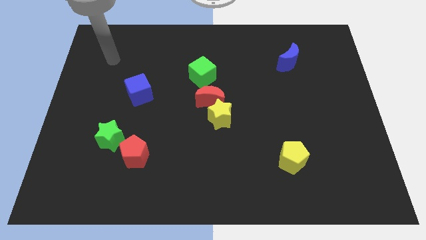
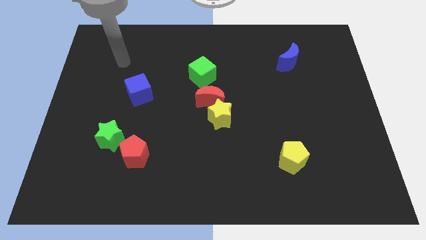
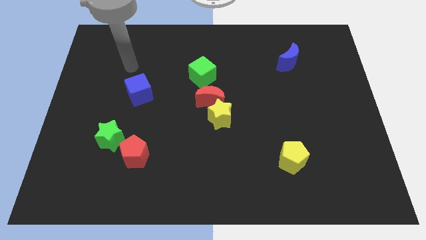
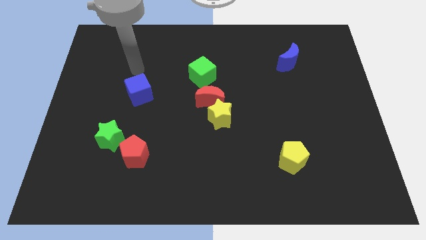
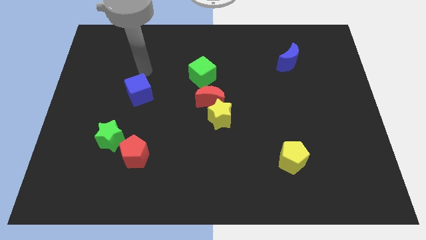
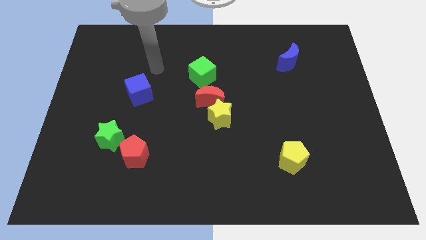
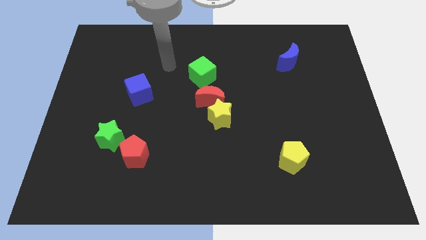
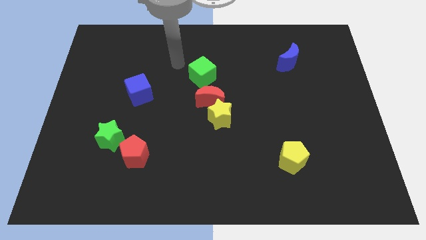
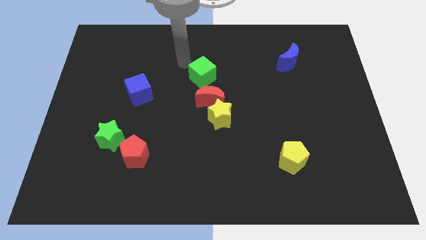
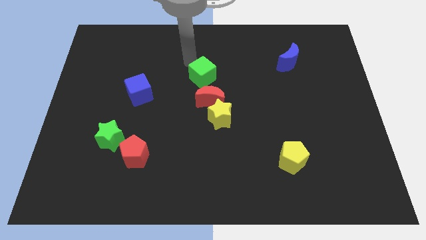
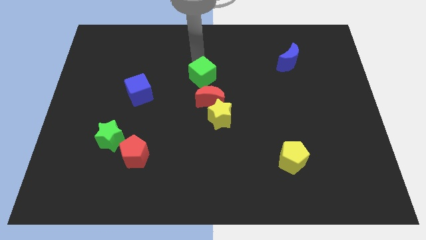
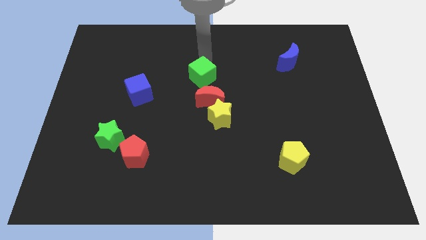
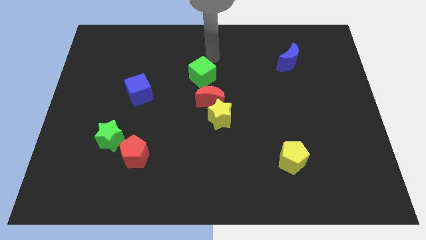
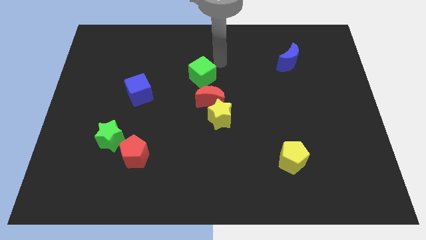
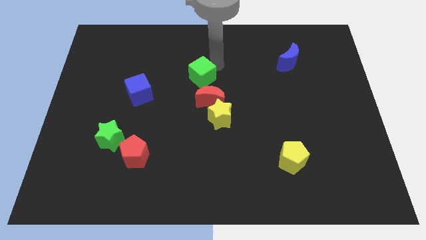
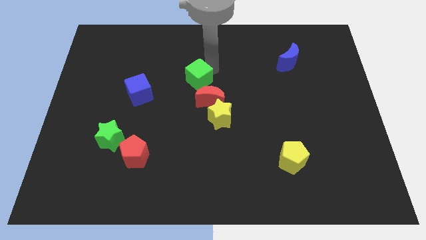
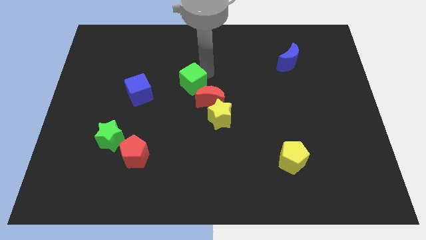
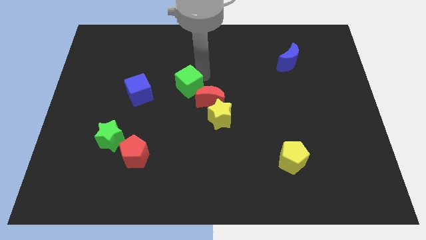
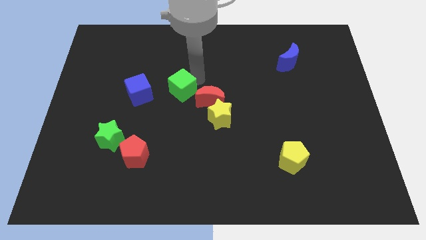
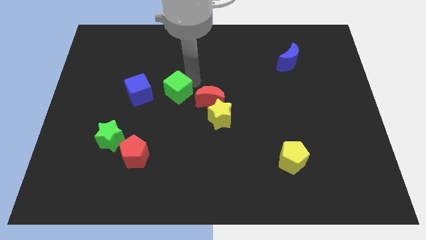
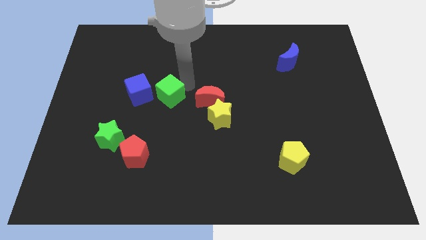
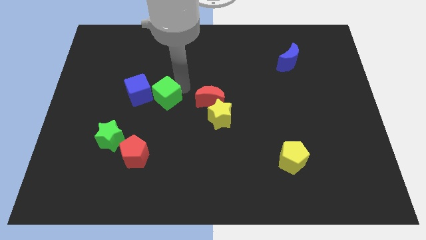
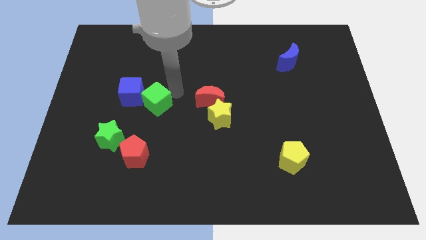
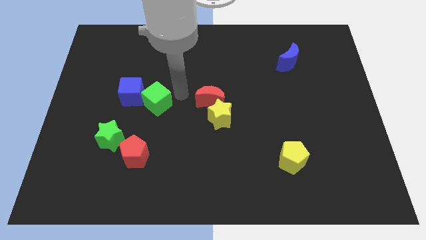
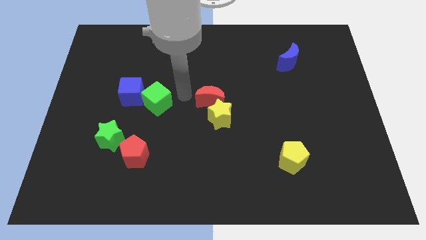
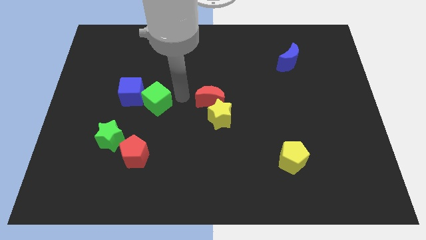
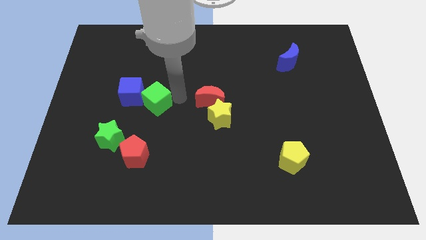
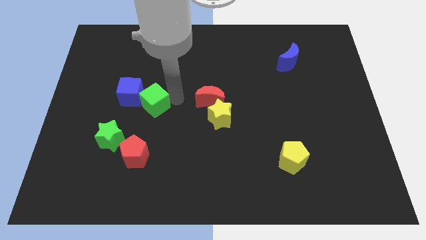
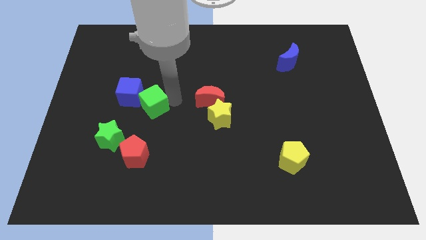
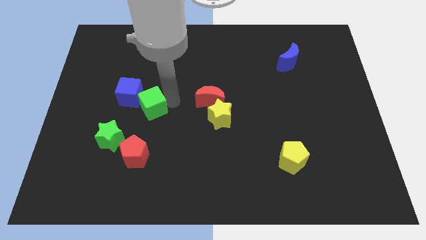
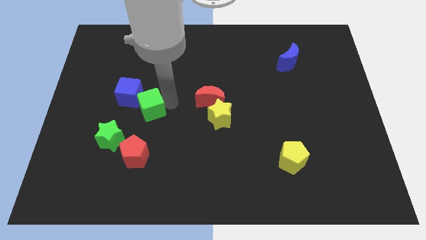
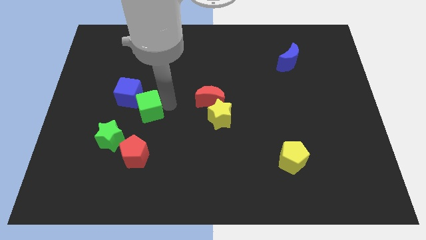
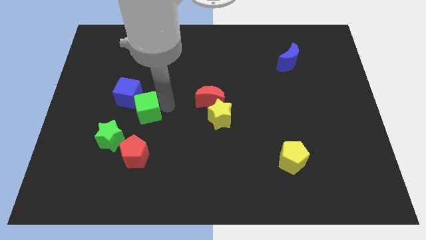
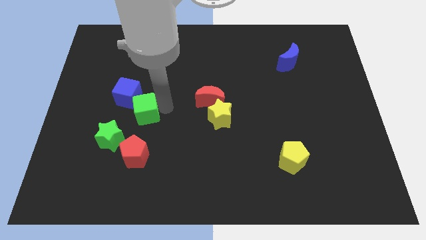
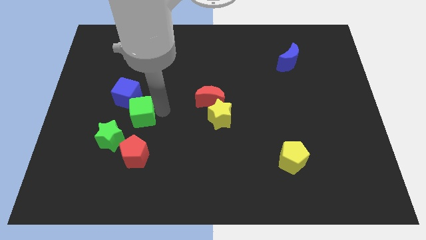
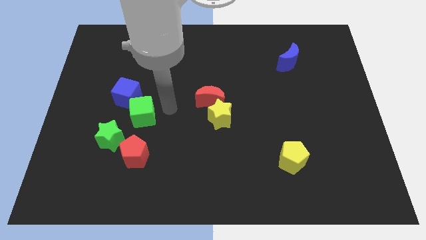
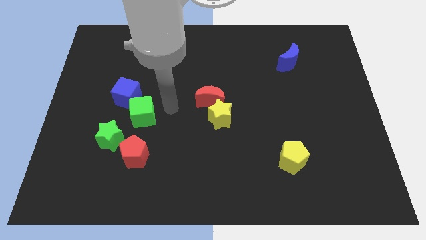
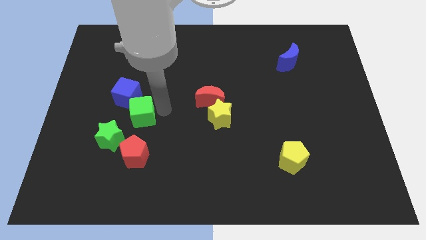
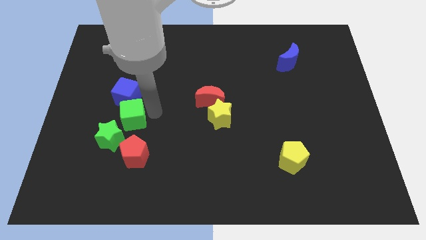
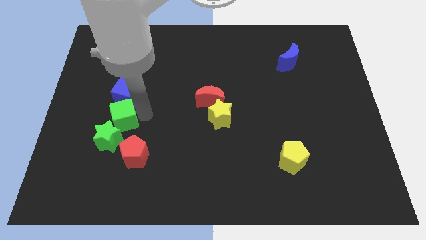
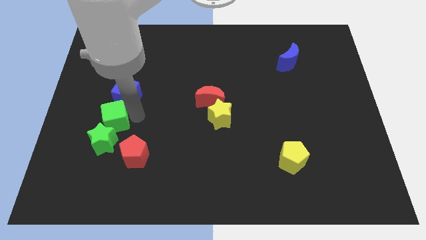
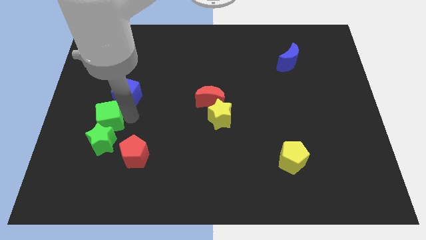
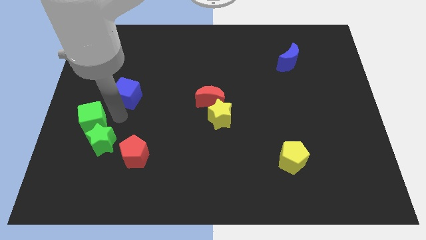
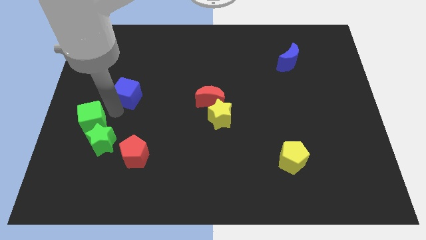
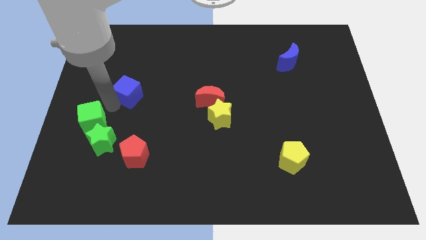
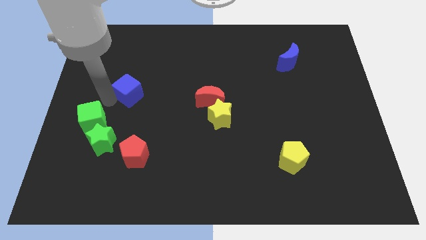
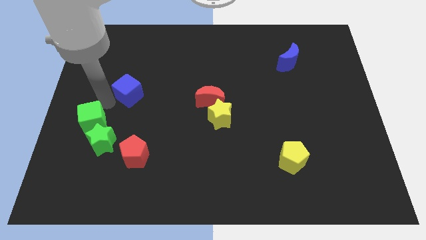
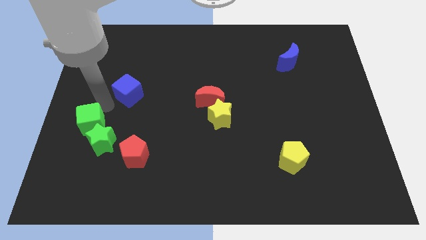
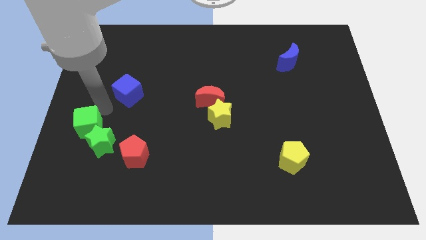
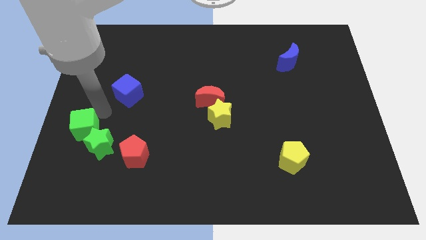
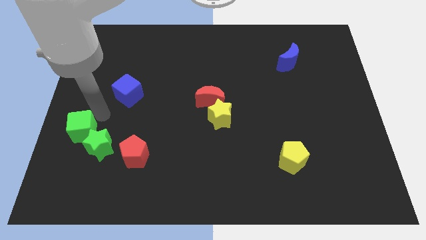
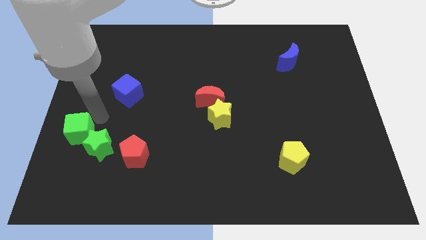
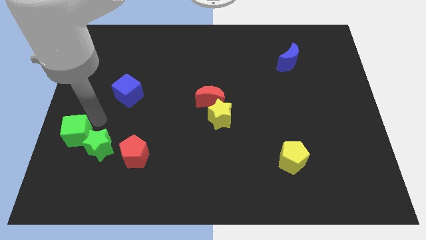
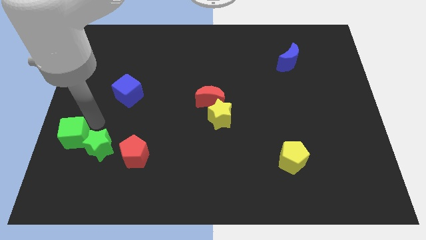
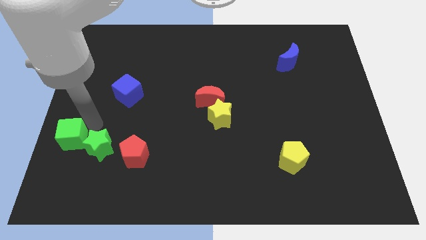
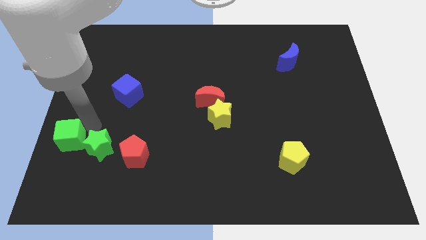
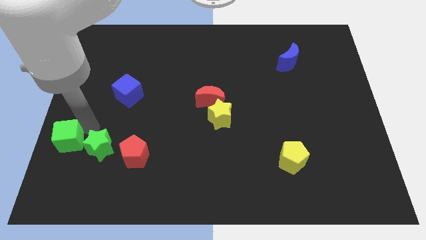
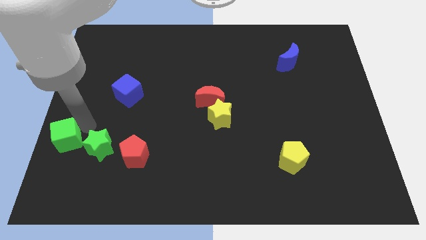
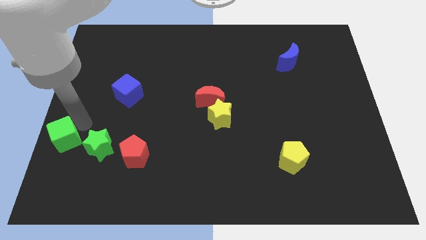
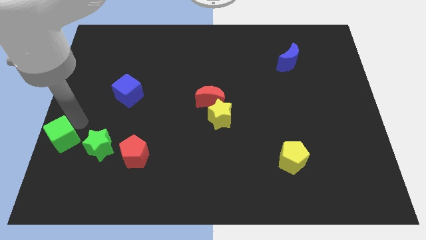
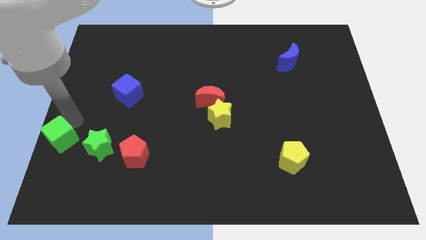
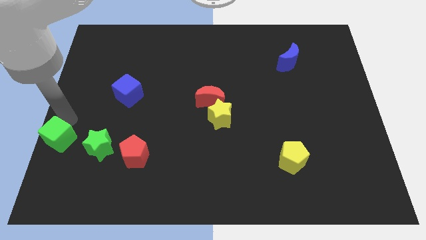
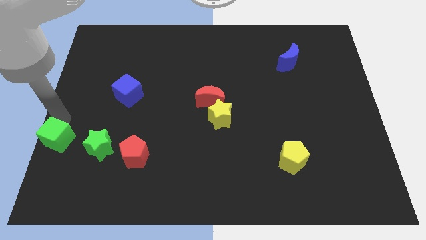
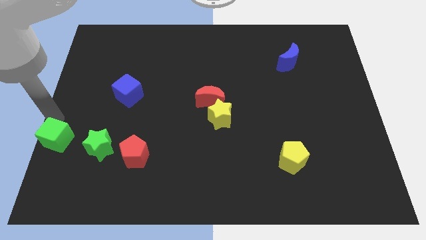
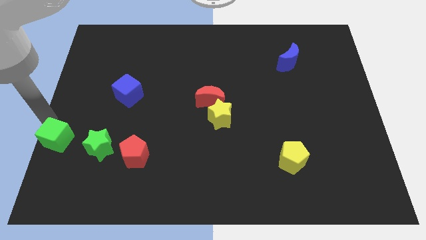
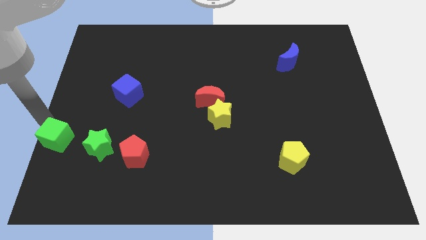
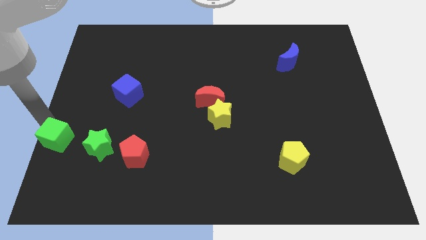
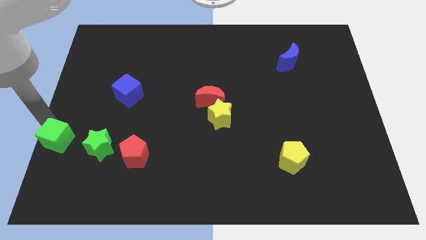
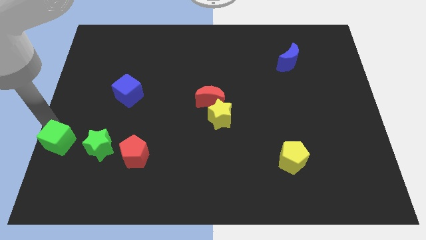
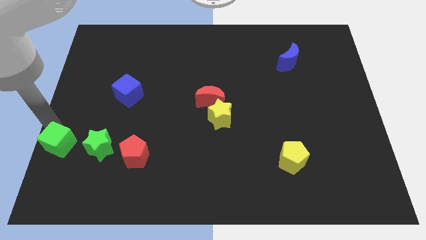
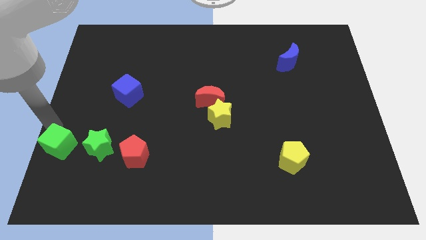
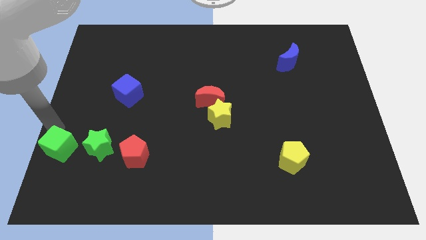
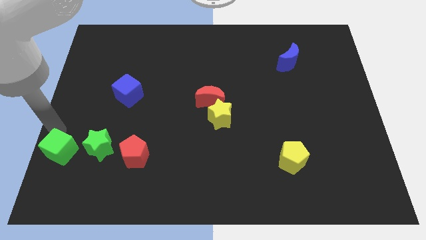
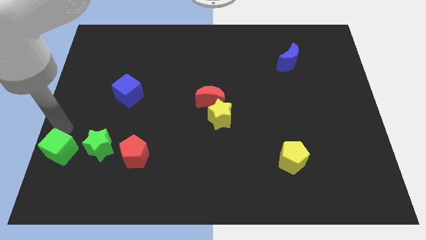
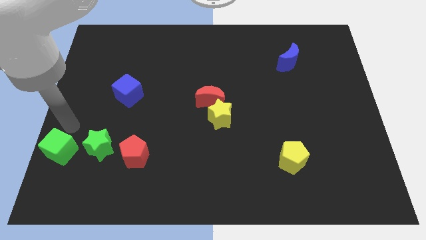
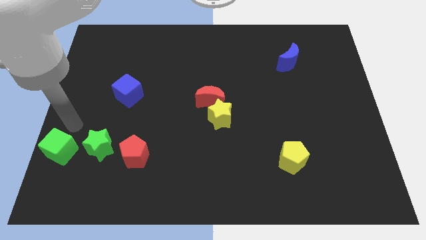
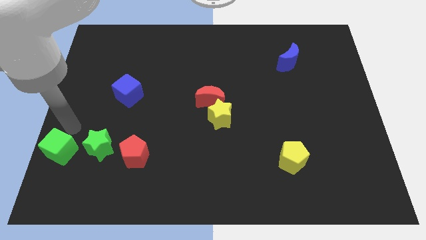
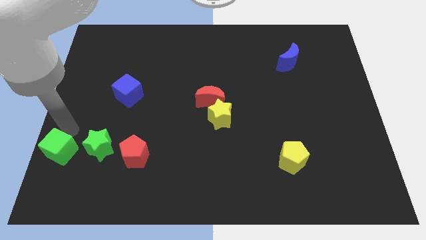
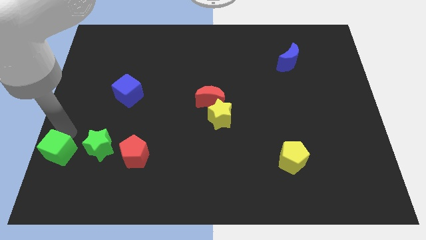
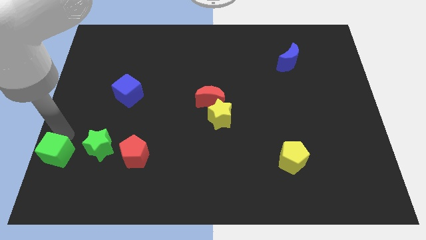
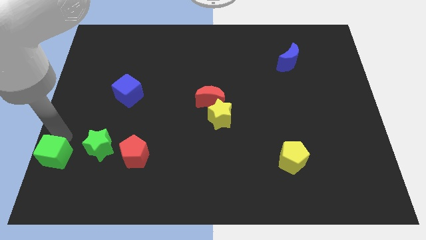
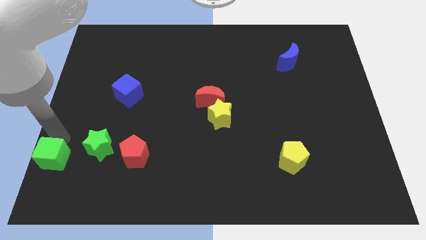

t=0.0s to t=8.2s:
put the green cube to the bottom left
